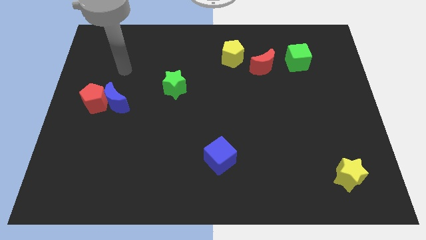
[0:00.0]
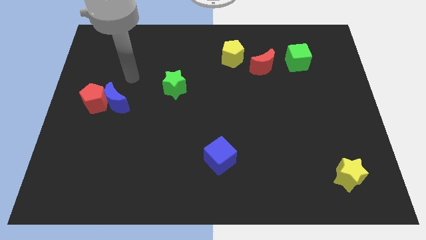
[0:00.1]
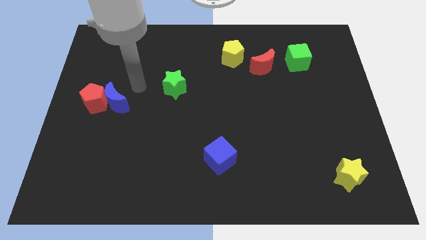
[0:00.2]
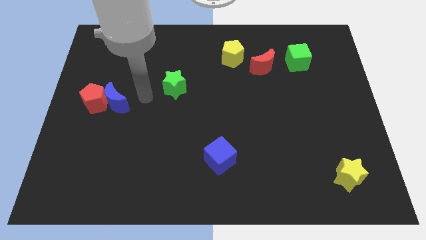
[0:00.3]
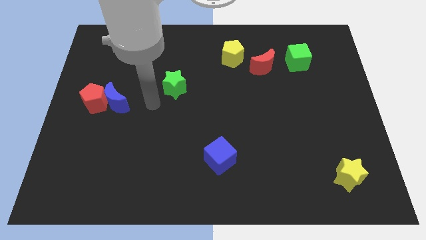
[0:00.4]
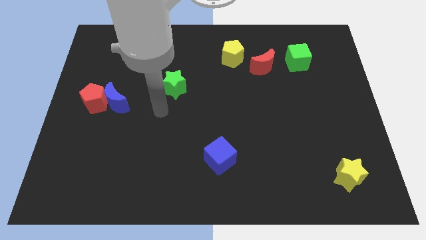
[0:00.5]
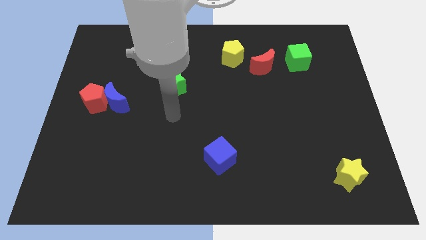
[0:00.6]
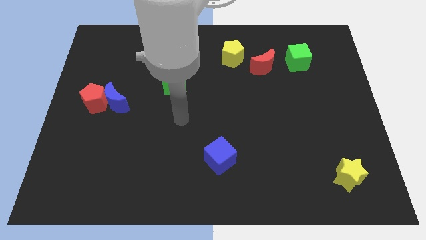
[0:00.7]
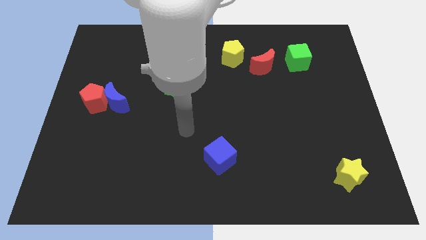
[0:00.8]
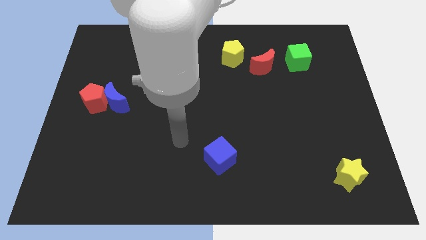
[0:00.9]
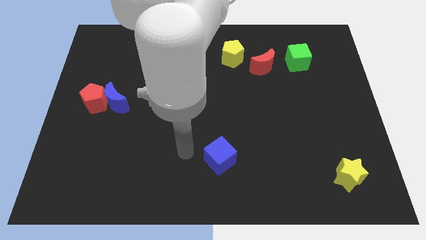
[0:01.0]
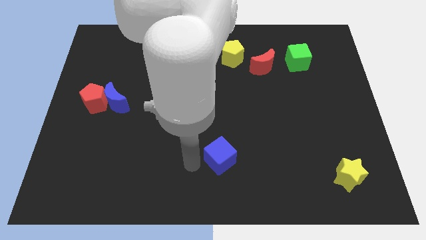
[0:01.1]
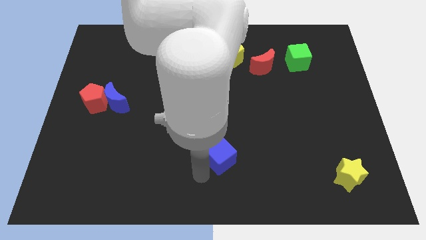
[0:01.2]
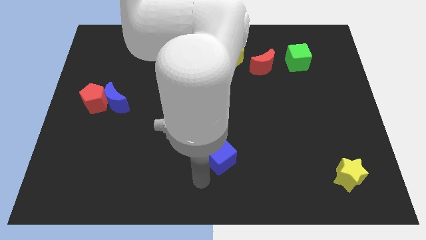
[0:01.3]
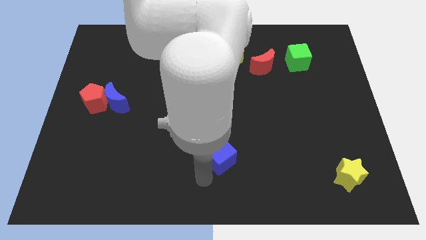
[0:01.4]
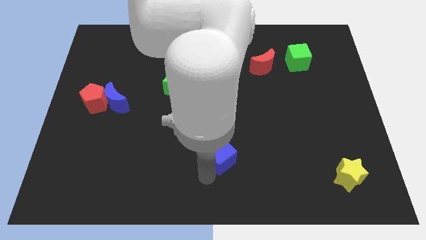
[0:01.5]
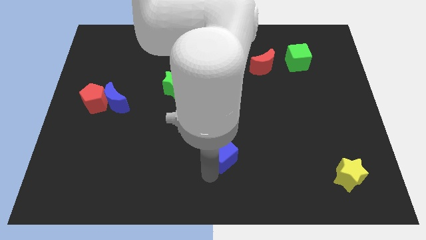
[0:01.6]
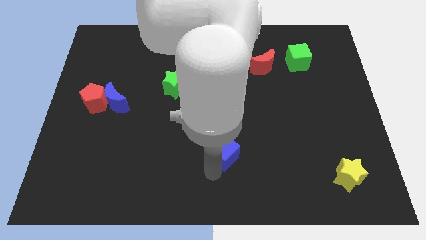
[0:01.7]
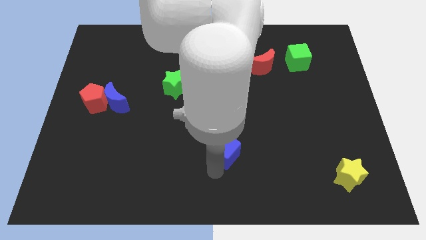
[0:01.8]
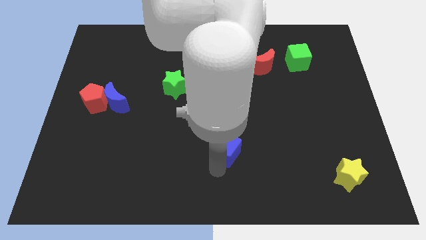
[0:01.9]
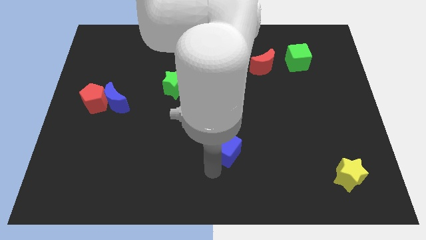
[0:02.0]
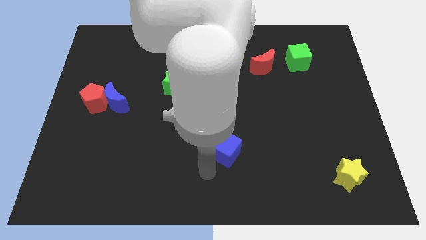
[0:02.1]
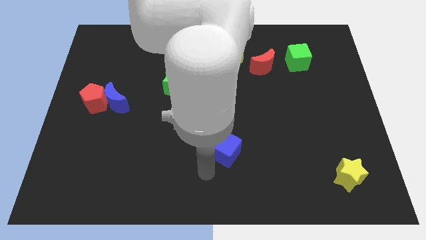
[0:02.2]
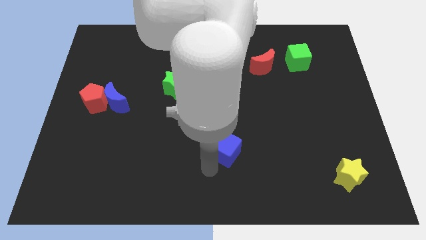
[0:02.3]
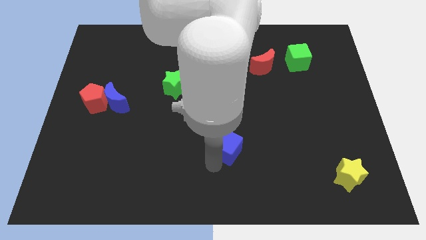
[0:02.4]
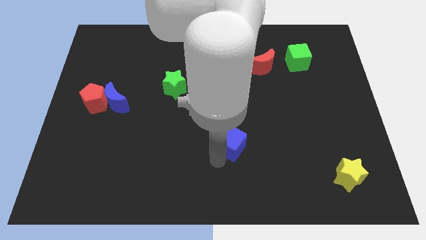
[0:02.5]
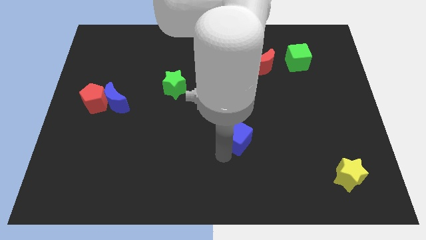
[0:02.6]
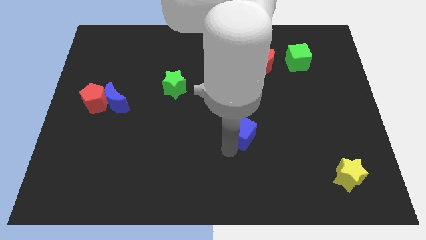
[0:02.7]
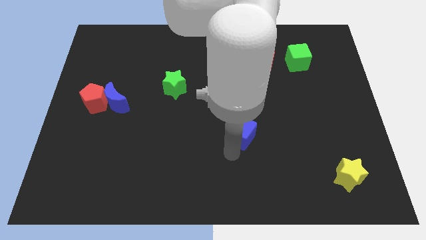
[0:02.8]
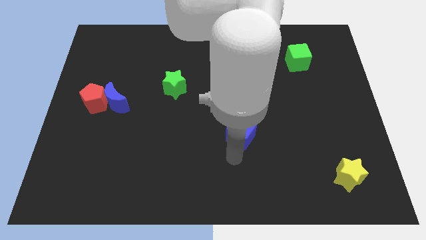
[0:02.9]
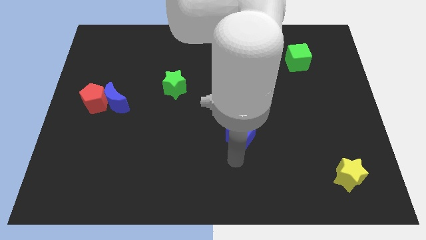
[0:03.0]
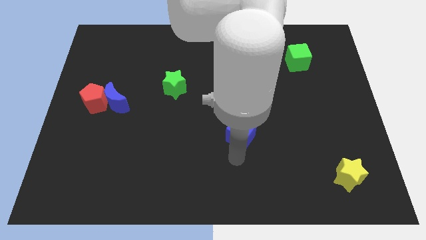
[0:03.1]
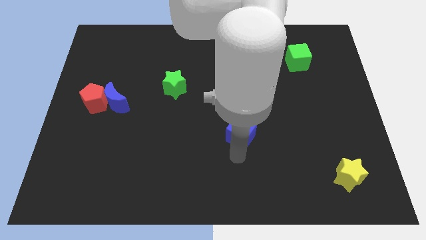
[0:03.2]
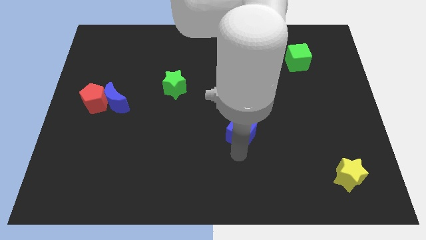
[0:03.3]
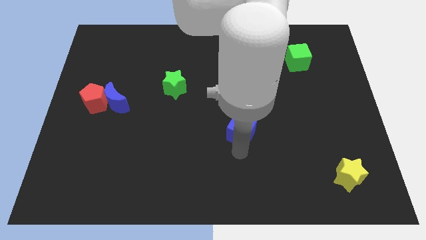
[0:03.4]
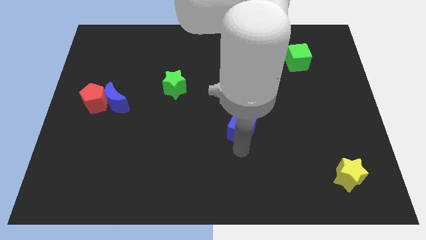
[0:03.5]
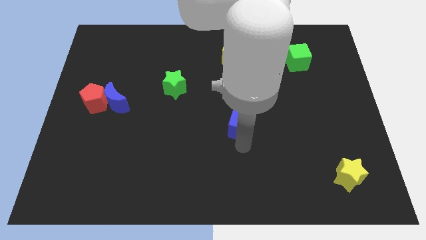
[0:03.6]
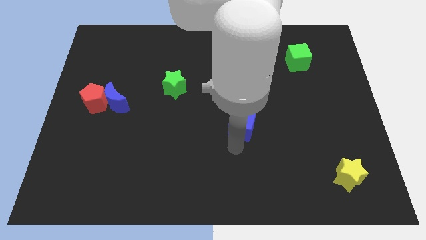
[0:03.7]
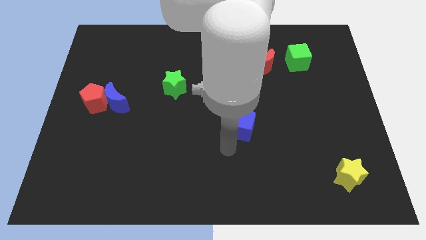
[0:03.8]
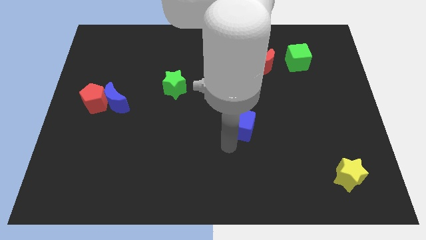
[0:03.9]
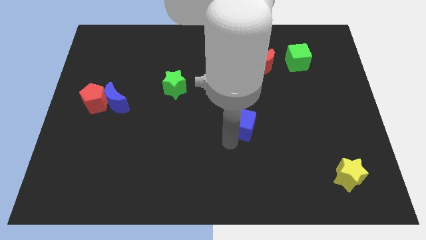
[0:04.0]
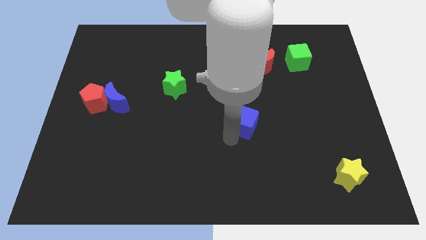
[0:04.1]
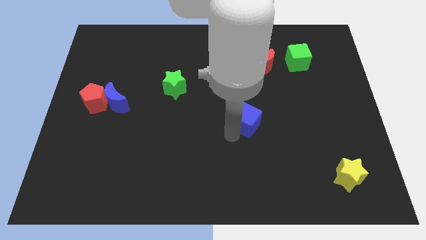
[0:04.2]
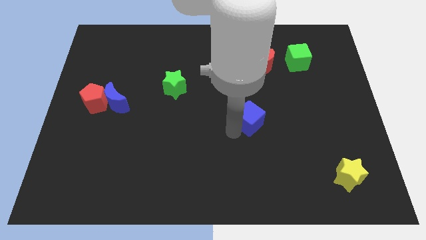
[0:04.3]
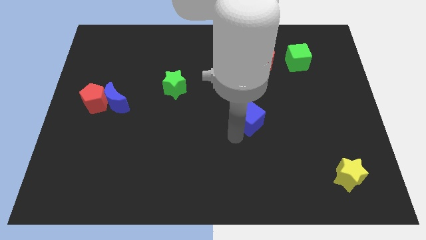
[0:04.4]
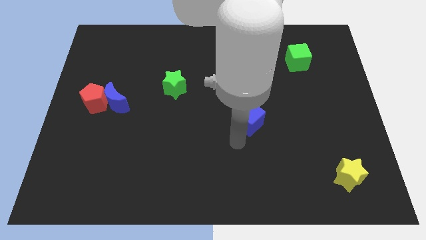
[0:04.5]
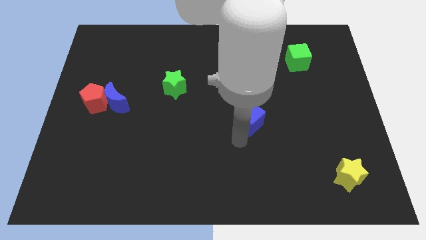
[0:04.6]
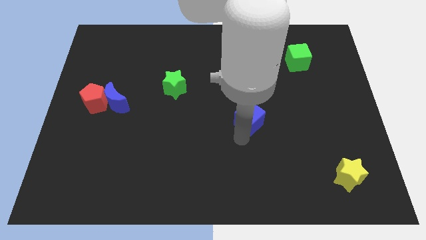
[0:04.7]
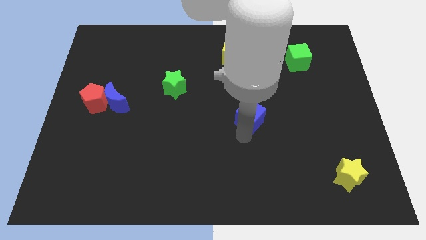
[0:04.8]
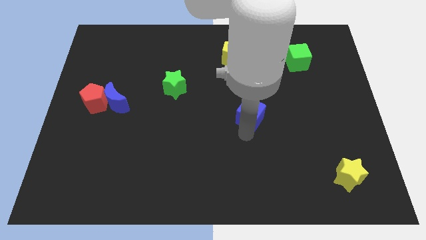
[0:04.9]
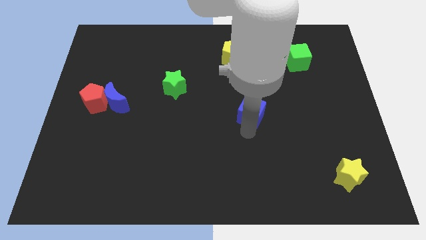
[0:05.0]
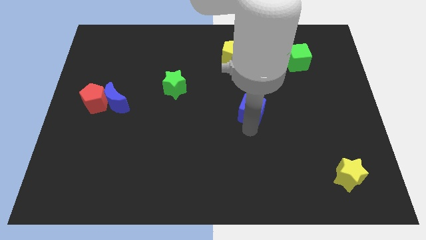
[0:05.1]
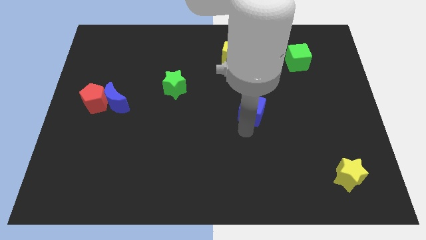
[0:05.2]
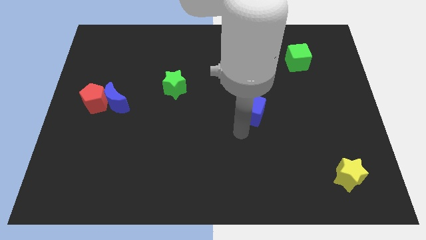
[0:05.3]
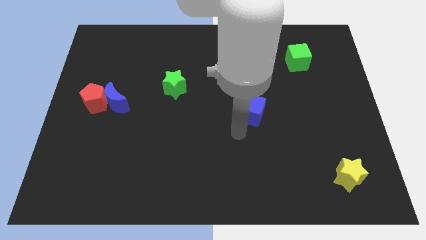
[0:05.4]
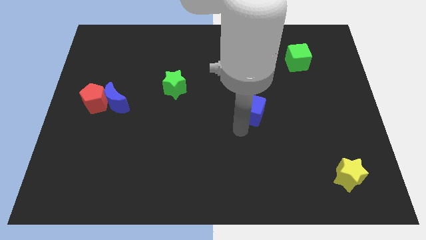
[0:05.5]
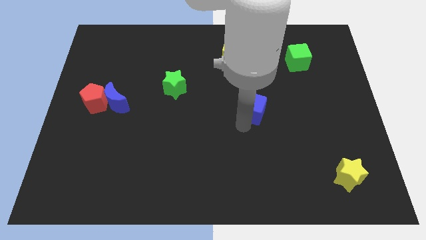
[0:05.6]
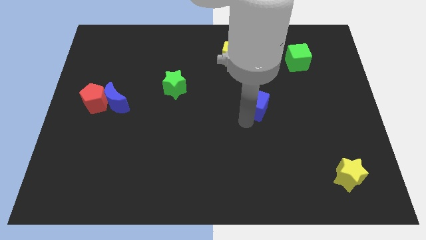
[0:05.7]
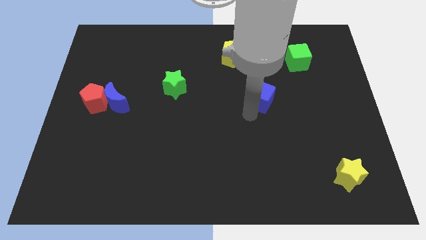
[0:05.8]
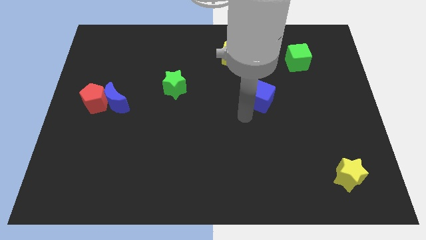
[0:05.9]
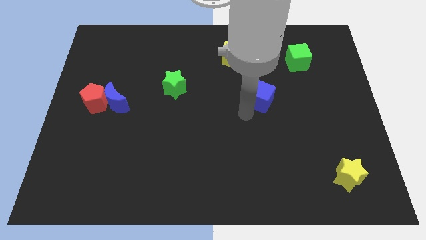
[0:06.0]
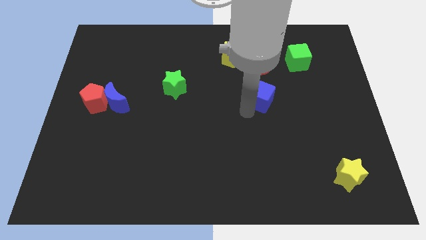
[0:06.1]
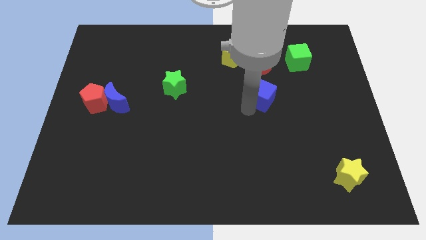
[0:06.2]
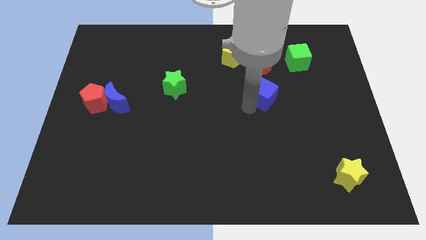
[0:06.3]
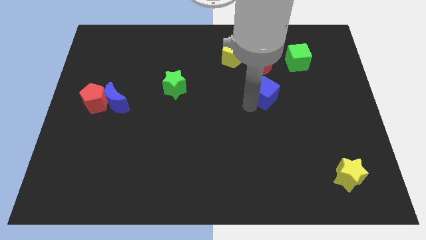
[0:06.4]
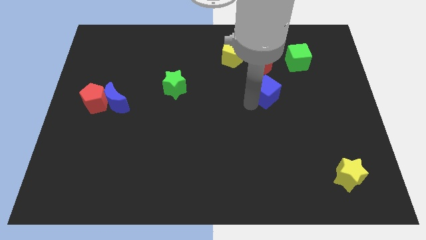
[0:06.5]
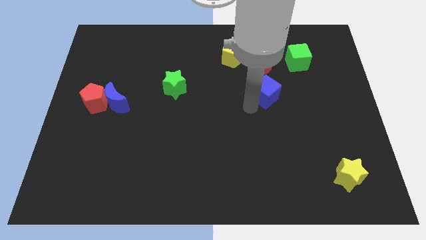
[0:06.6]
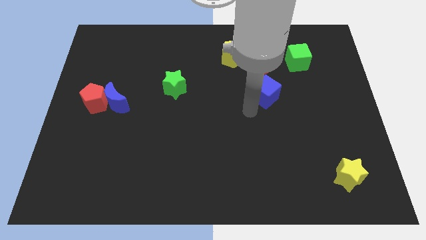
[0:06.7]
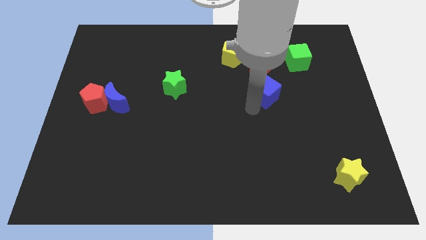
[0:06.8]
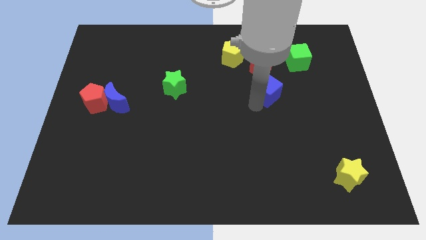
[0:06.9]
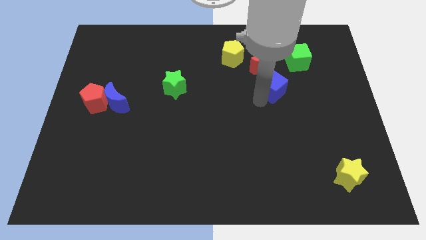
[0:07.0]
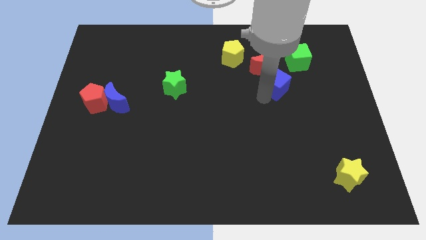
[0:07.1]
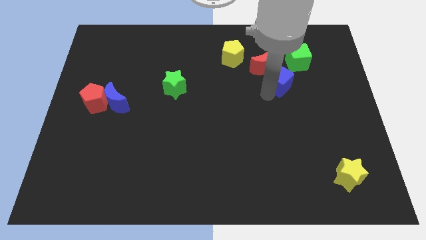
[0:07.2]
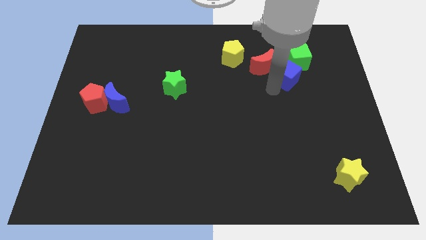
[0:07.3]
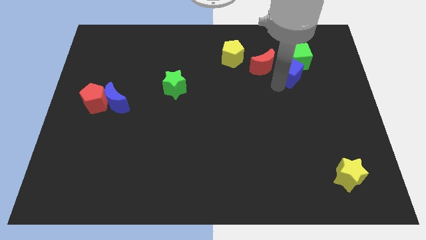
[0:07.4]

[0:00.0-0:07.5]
push the blue cube next to the green cube
